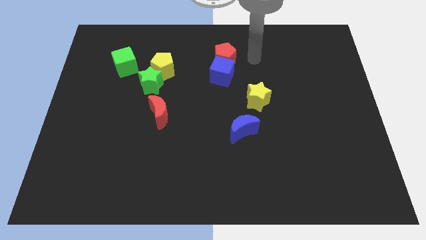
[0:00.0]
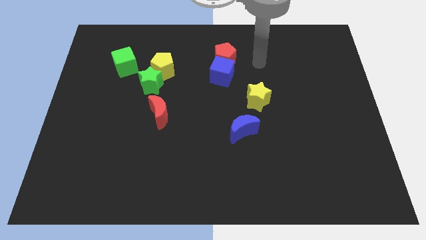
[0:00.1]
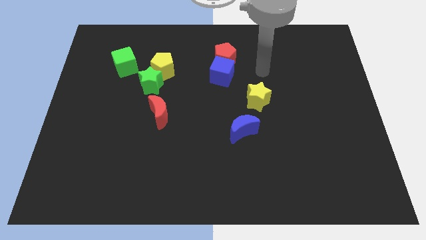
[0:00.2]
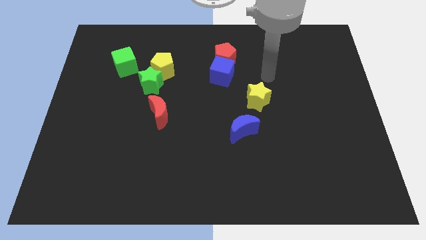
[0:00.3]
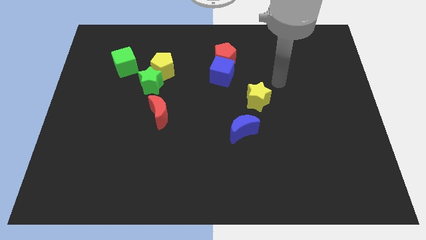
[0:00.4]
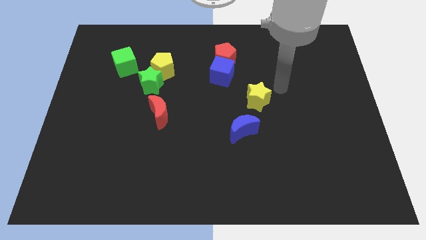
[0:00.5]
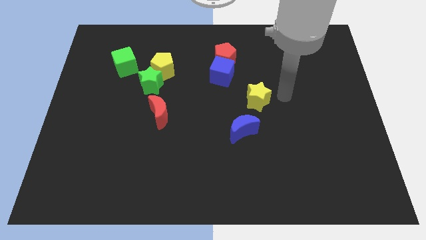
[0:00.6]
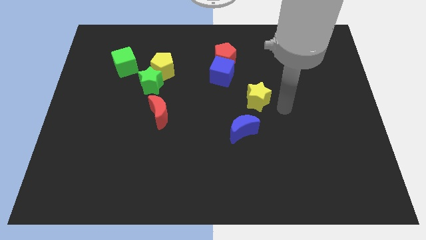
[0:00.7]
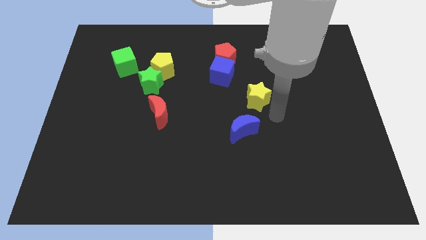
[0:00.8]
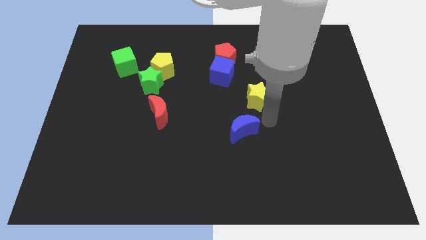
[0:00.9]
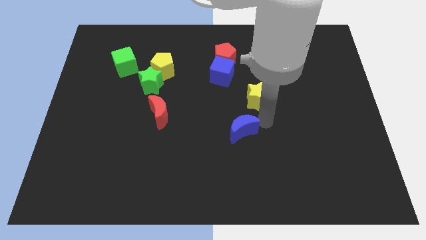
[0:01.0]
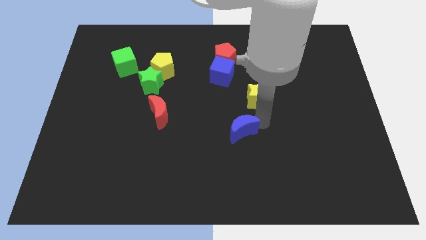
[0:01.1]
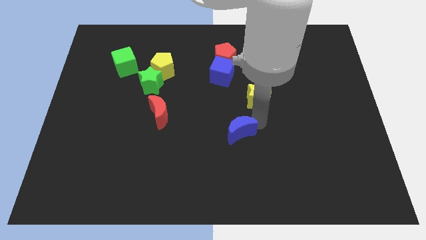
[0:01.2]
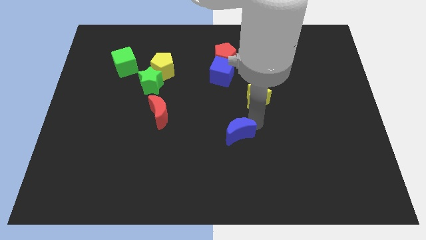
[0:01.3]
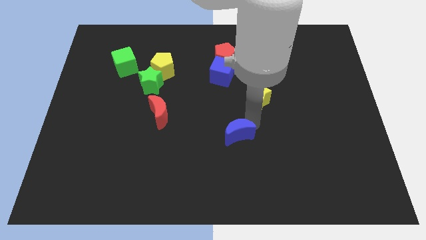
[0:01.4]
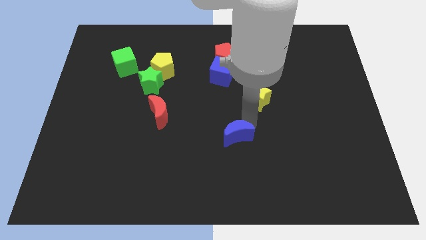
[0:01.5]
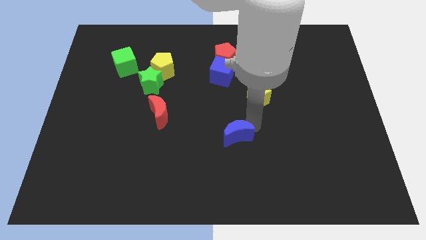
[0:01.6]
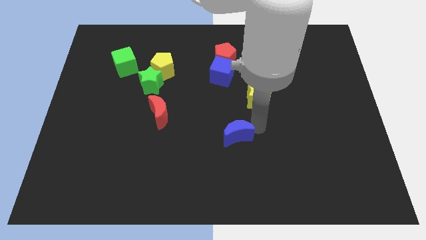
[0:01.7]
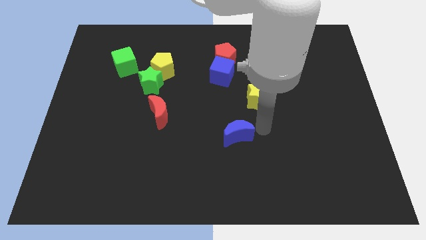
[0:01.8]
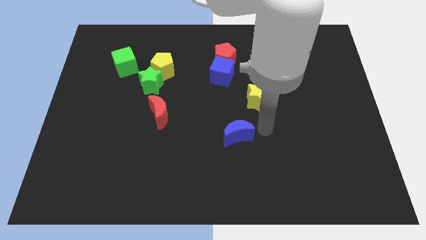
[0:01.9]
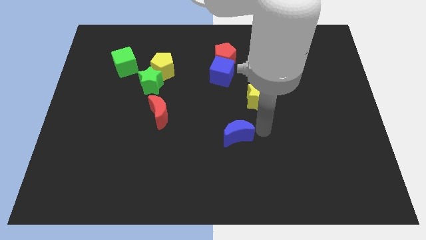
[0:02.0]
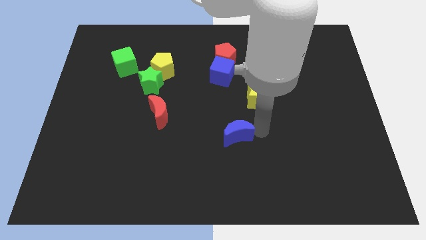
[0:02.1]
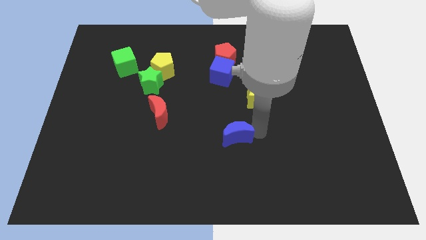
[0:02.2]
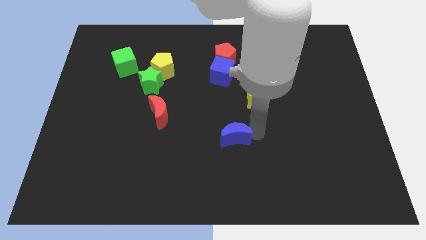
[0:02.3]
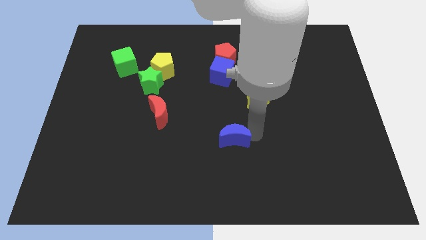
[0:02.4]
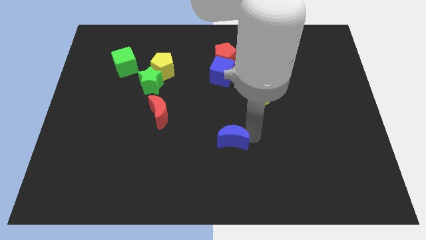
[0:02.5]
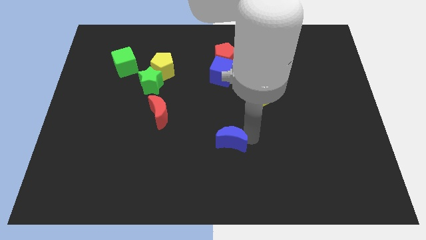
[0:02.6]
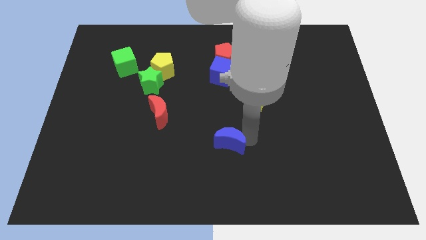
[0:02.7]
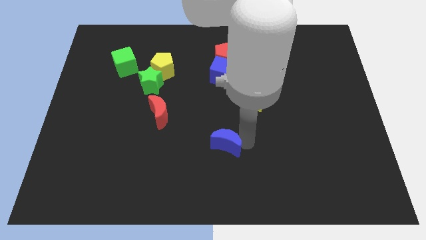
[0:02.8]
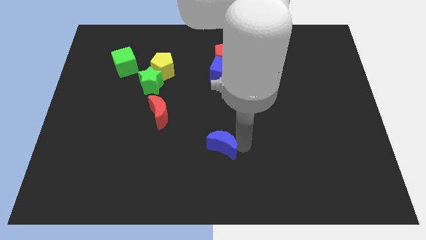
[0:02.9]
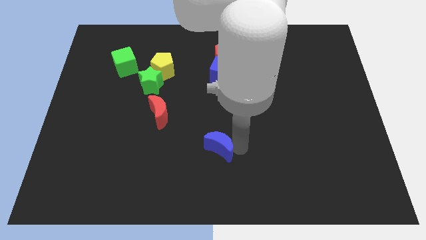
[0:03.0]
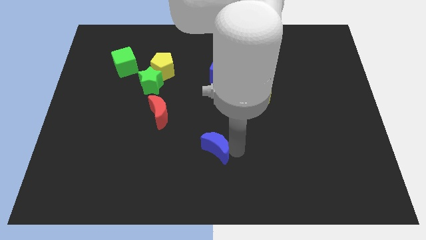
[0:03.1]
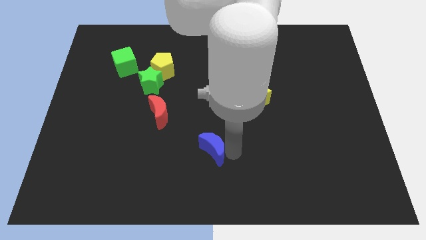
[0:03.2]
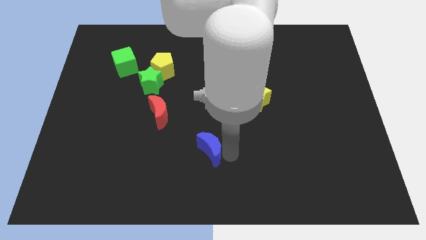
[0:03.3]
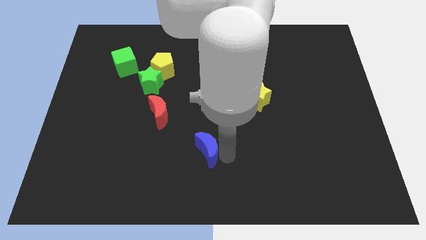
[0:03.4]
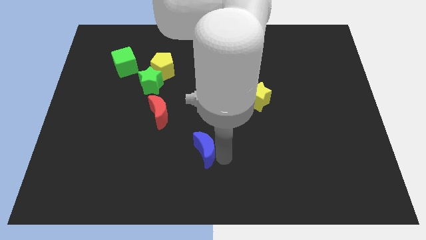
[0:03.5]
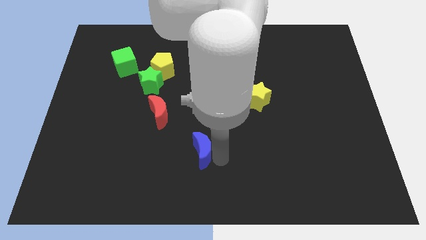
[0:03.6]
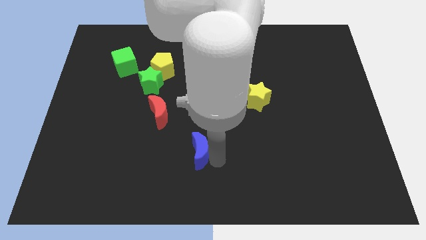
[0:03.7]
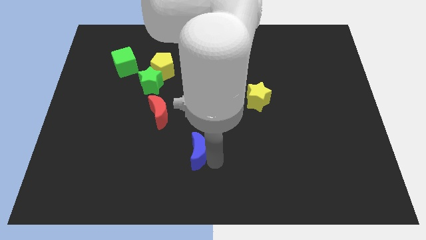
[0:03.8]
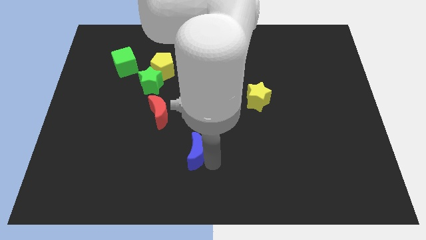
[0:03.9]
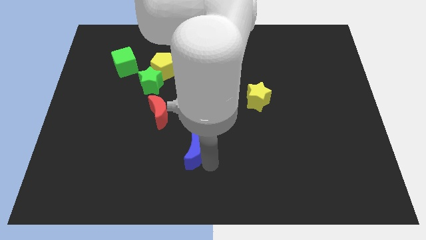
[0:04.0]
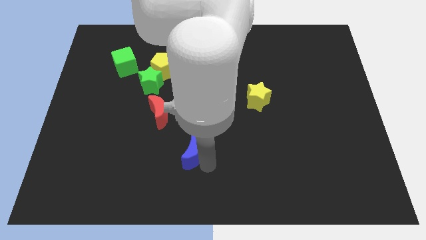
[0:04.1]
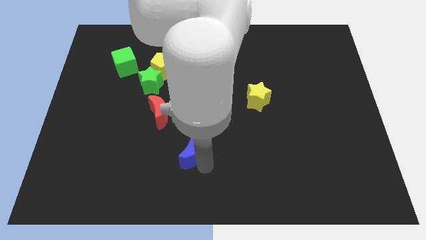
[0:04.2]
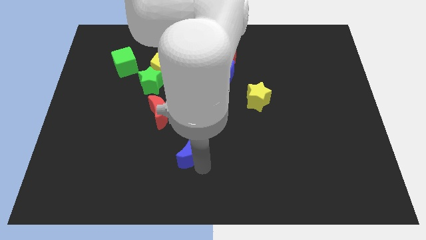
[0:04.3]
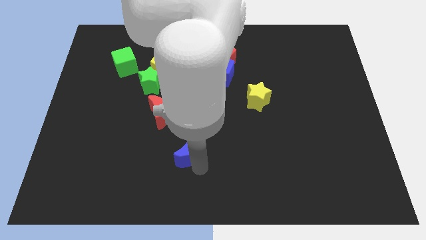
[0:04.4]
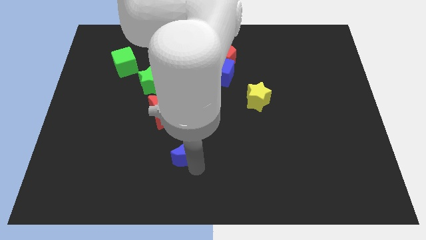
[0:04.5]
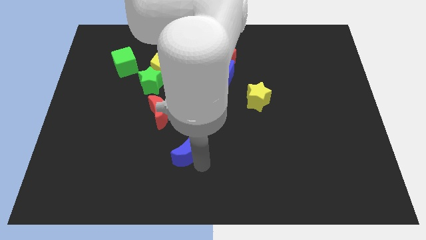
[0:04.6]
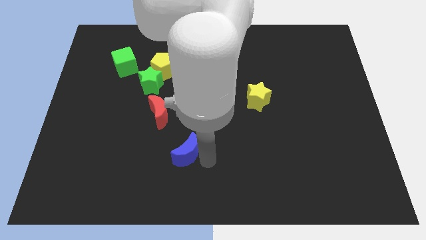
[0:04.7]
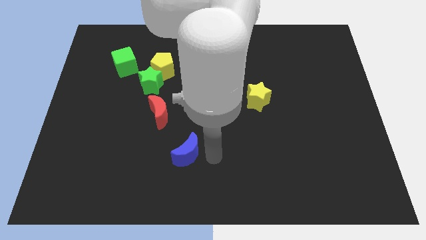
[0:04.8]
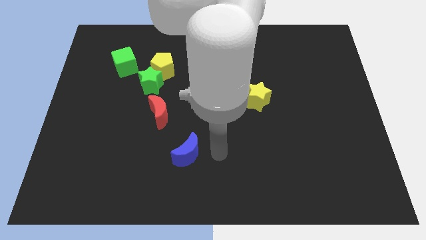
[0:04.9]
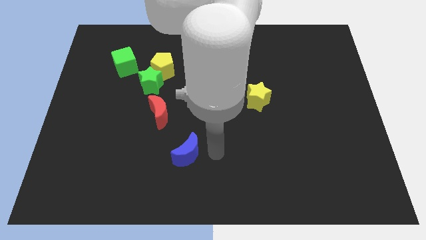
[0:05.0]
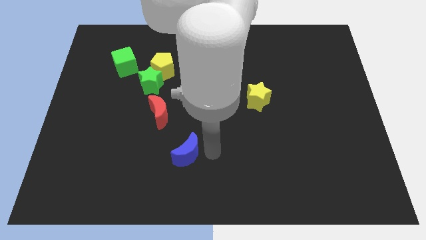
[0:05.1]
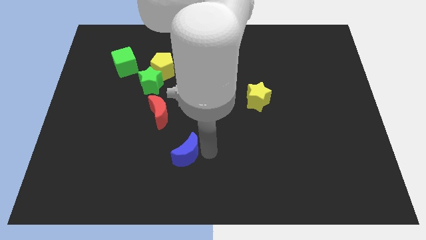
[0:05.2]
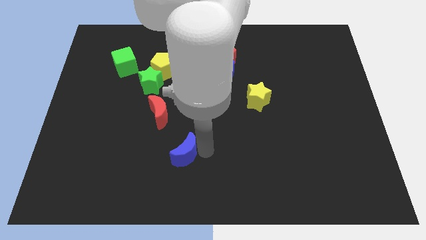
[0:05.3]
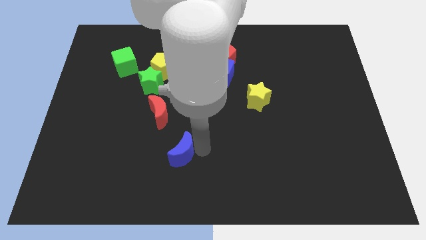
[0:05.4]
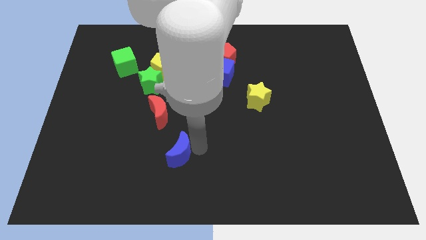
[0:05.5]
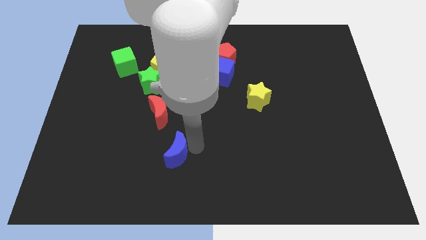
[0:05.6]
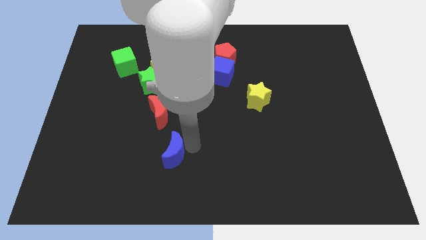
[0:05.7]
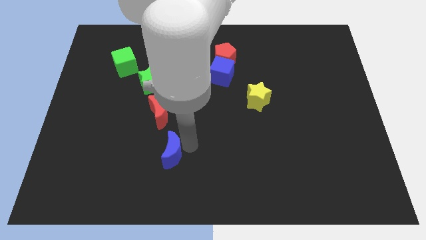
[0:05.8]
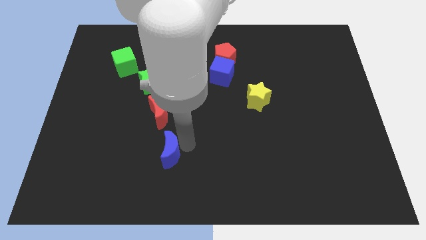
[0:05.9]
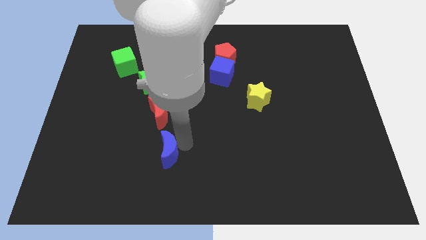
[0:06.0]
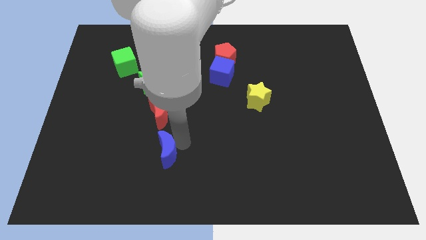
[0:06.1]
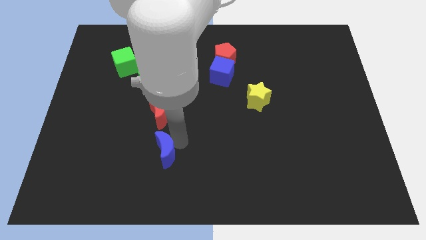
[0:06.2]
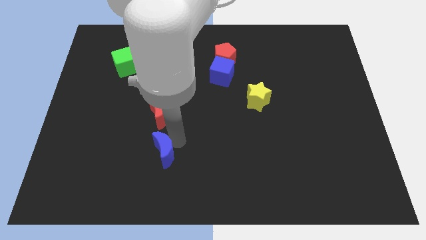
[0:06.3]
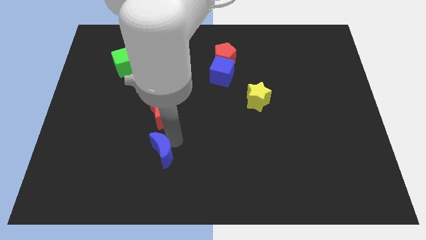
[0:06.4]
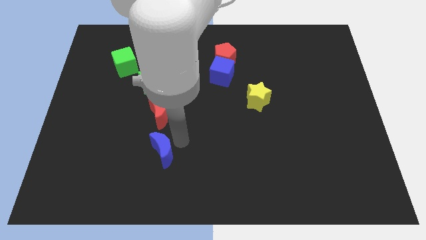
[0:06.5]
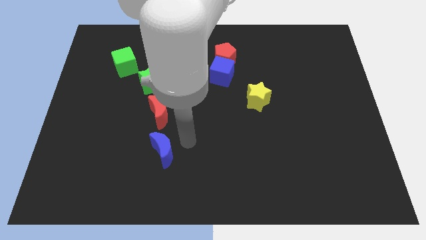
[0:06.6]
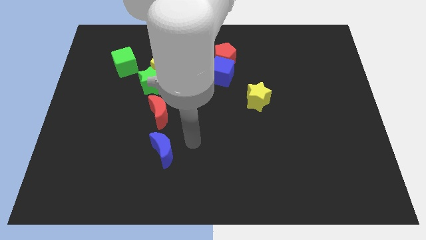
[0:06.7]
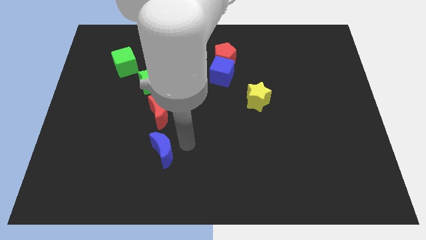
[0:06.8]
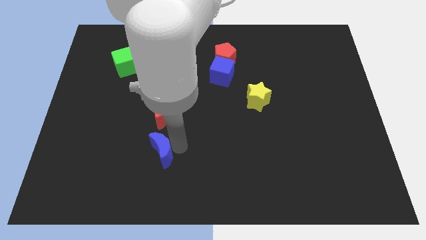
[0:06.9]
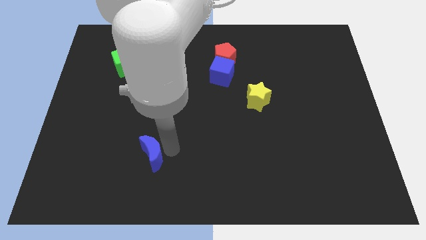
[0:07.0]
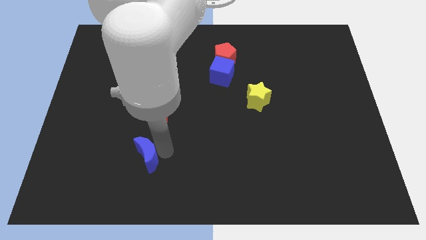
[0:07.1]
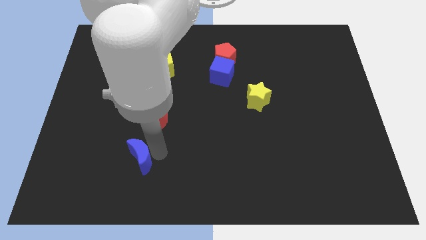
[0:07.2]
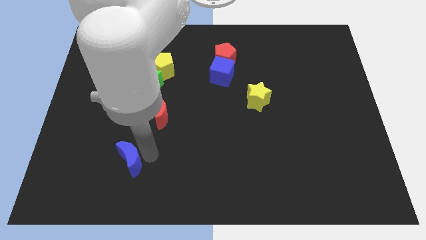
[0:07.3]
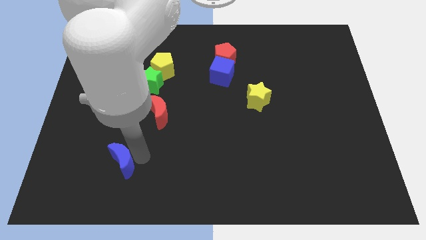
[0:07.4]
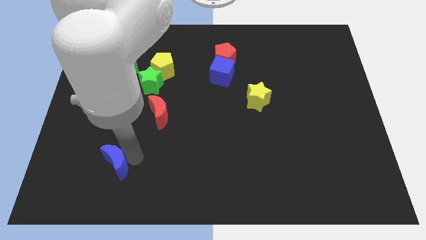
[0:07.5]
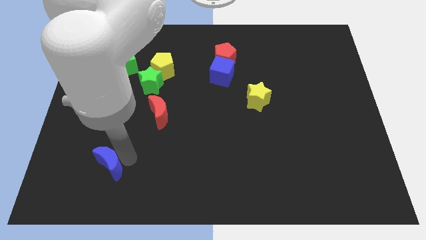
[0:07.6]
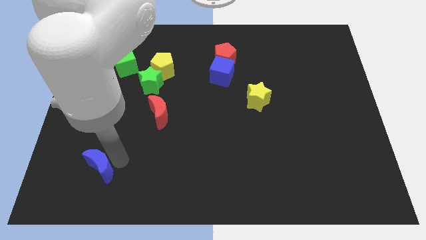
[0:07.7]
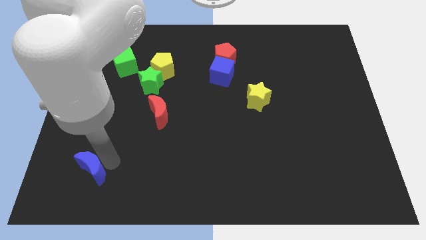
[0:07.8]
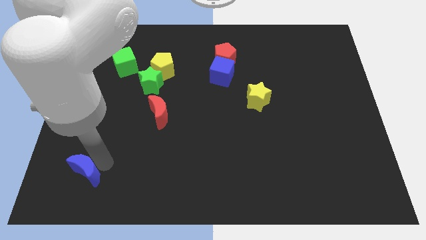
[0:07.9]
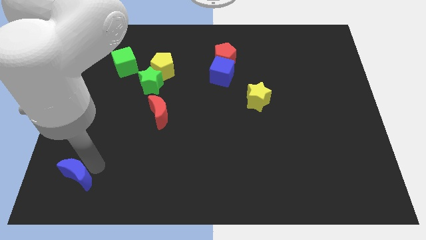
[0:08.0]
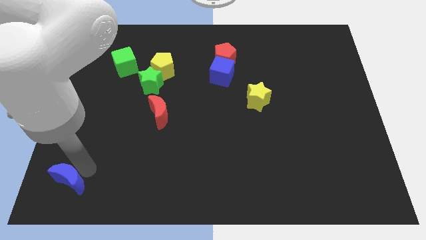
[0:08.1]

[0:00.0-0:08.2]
move the blue moon to the bottom left corner
